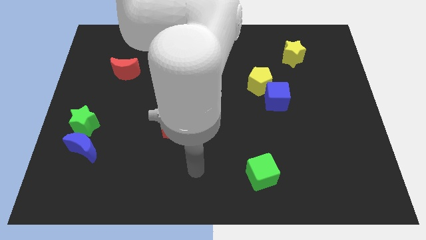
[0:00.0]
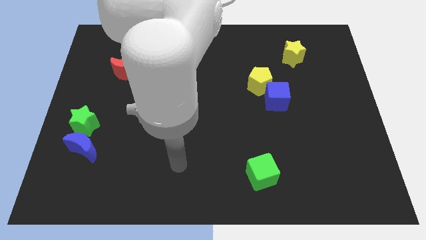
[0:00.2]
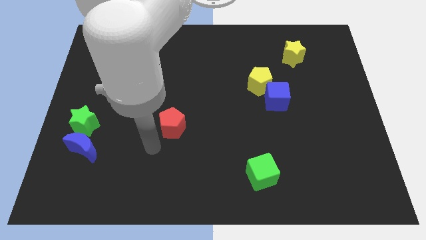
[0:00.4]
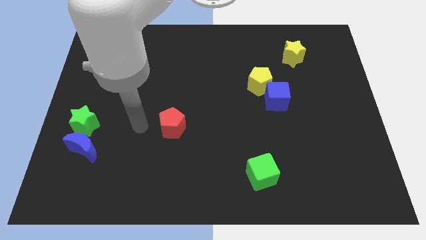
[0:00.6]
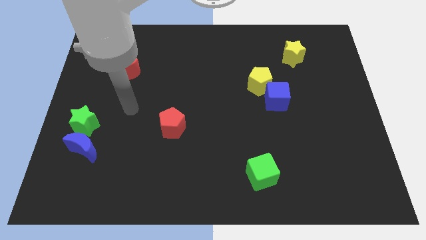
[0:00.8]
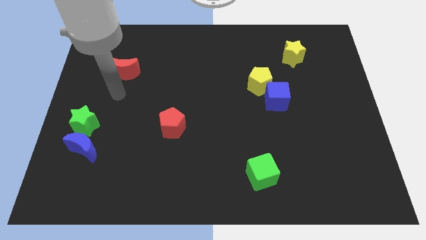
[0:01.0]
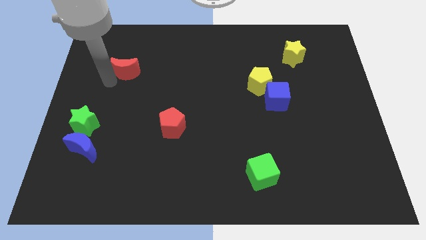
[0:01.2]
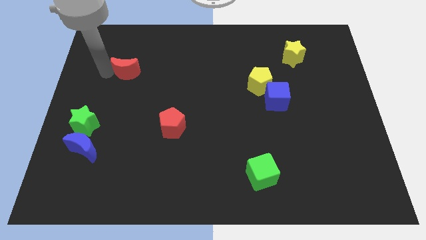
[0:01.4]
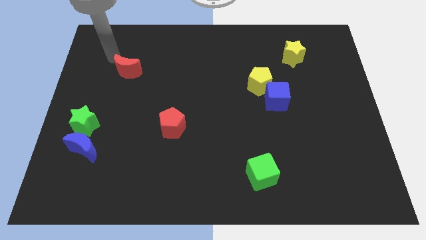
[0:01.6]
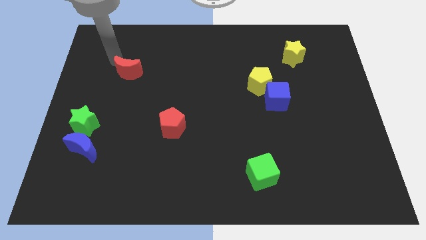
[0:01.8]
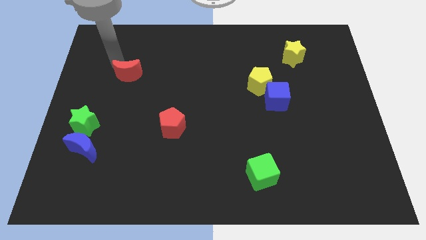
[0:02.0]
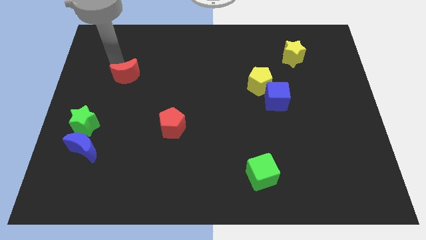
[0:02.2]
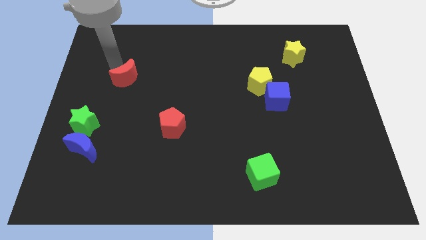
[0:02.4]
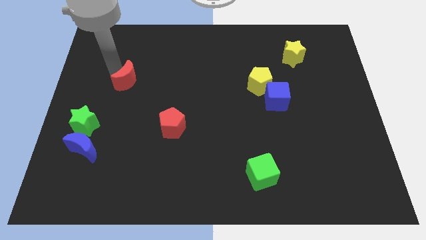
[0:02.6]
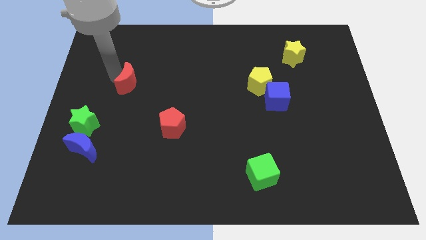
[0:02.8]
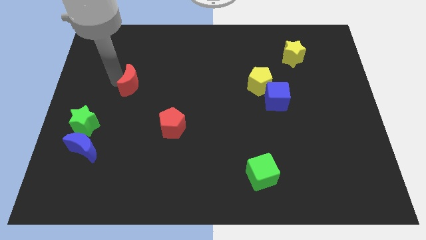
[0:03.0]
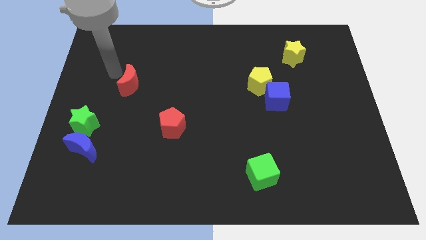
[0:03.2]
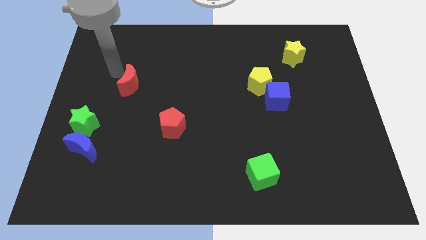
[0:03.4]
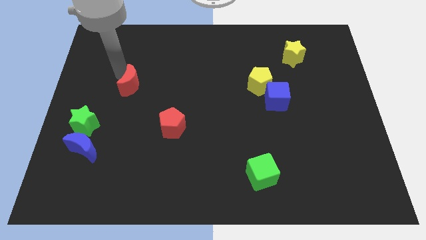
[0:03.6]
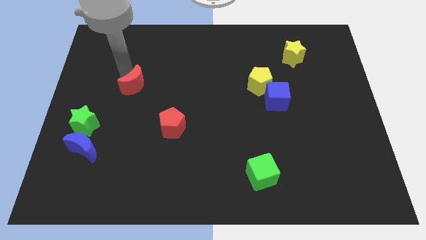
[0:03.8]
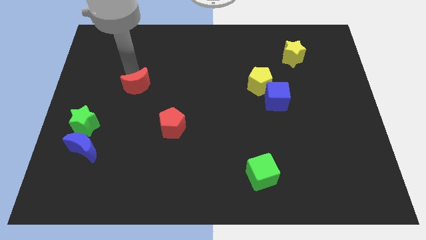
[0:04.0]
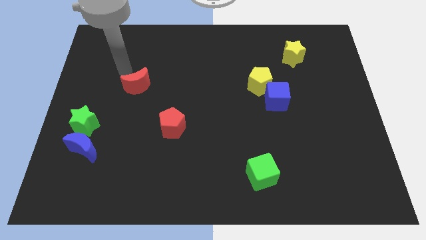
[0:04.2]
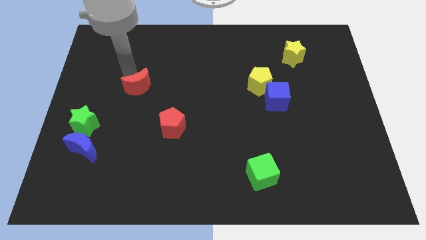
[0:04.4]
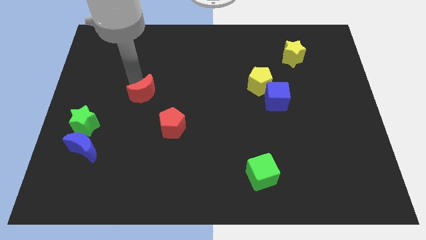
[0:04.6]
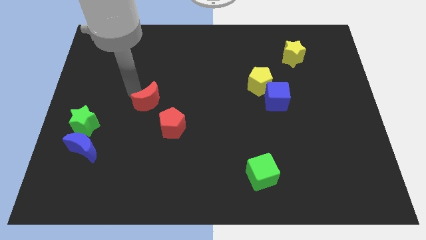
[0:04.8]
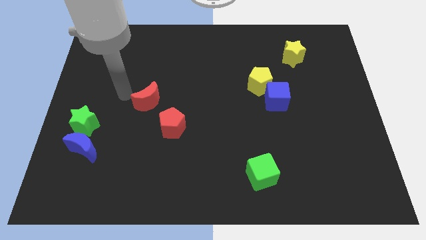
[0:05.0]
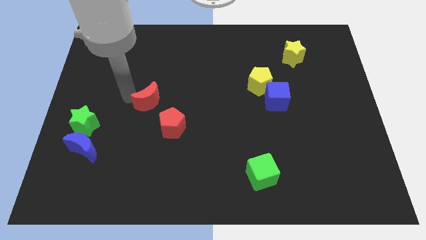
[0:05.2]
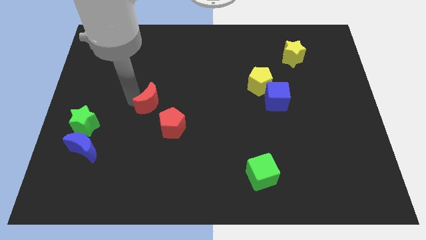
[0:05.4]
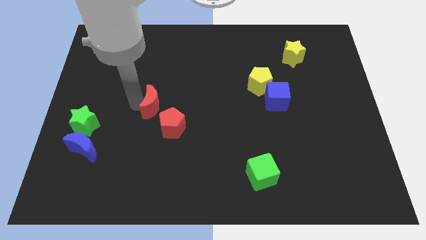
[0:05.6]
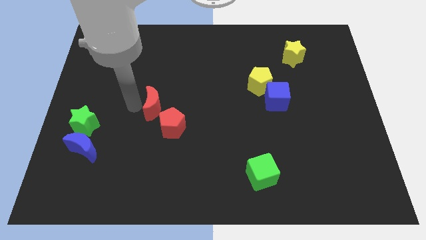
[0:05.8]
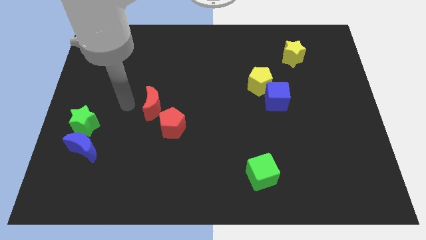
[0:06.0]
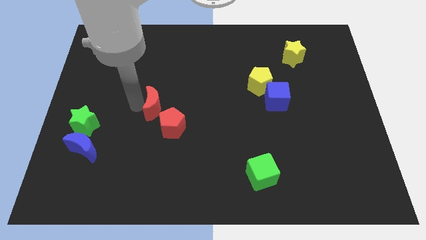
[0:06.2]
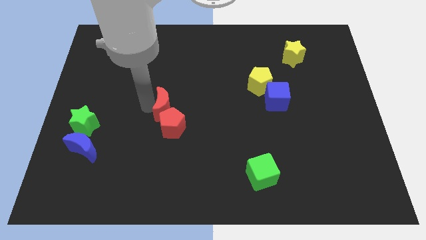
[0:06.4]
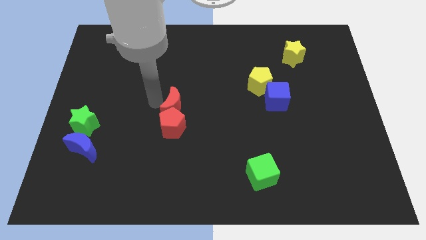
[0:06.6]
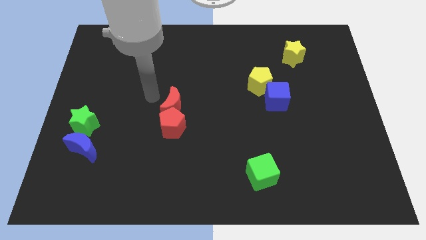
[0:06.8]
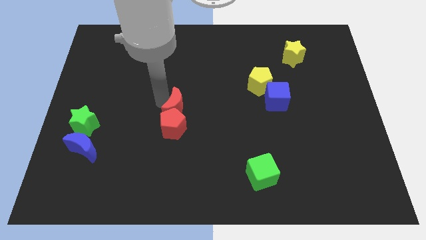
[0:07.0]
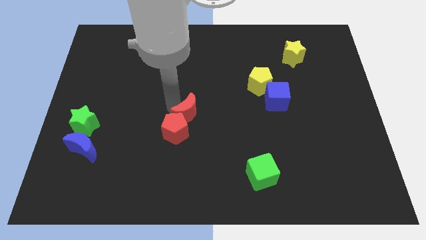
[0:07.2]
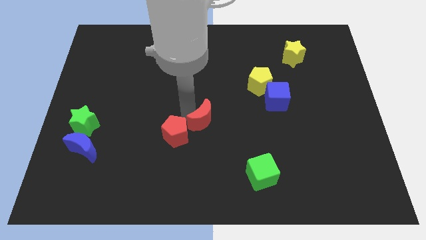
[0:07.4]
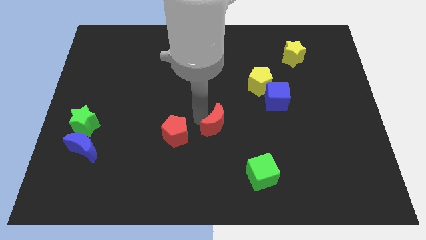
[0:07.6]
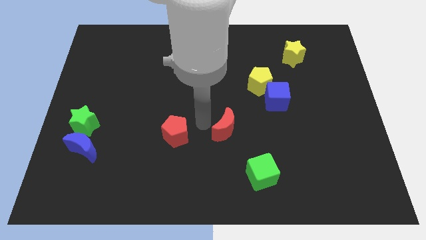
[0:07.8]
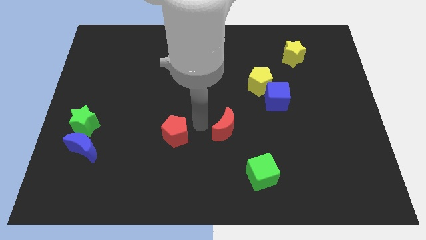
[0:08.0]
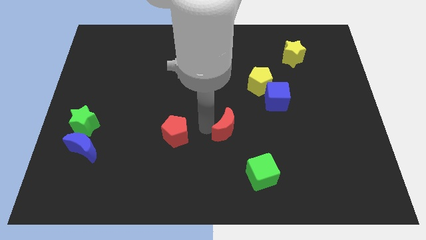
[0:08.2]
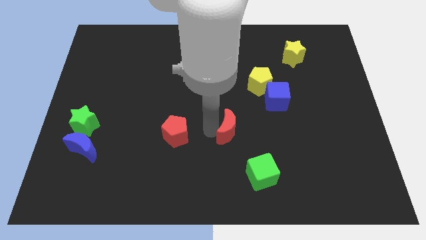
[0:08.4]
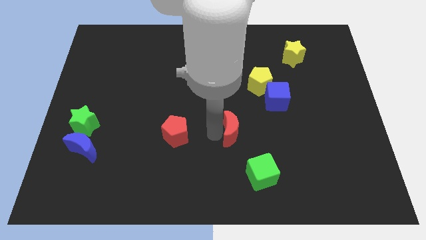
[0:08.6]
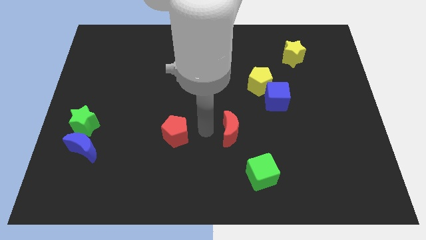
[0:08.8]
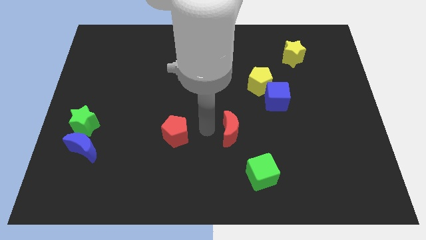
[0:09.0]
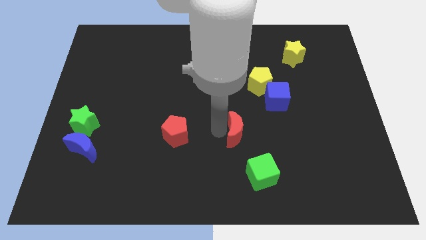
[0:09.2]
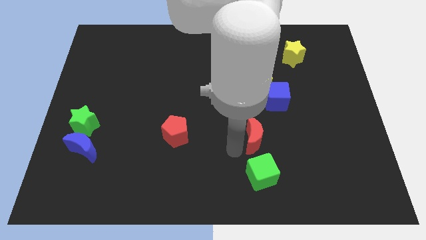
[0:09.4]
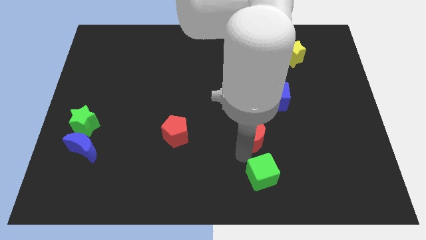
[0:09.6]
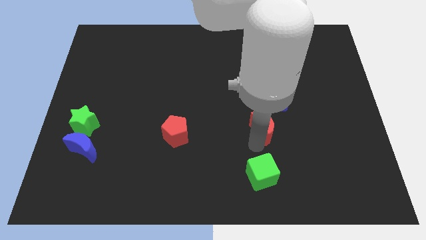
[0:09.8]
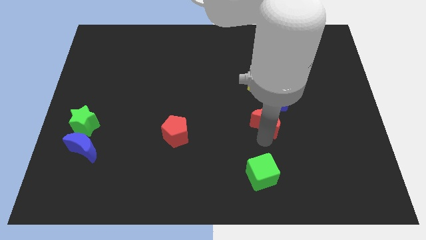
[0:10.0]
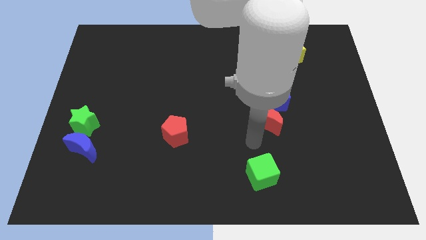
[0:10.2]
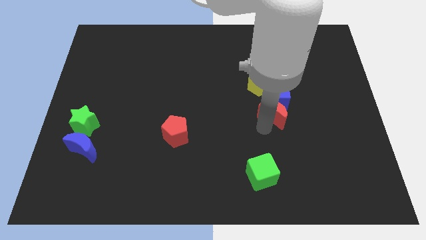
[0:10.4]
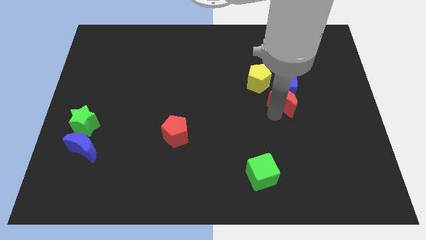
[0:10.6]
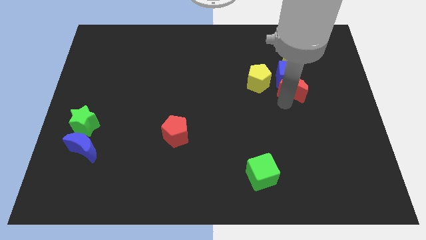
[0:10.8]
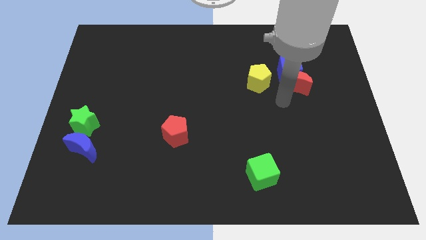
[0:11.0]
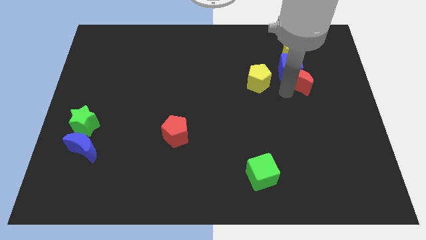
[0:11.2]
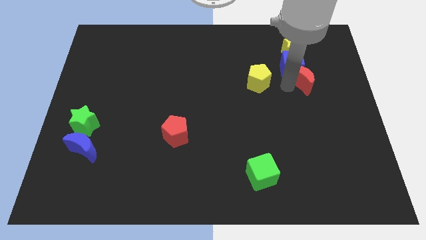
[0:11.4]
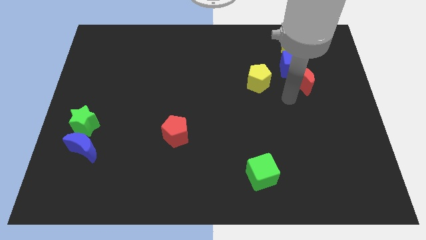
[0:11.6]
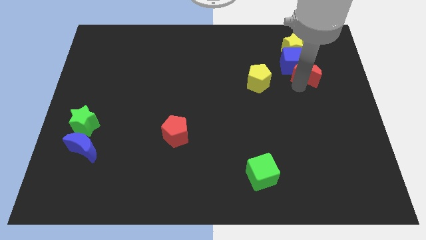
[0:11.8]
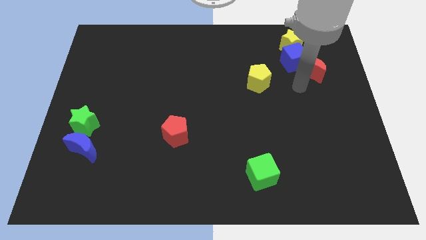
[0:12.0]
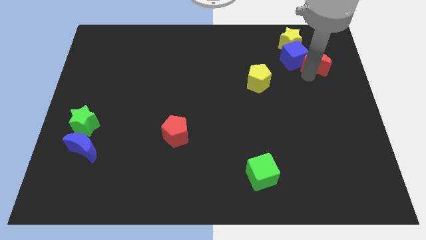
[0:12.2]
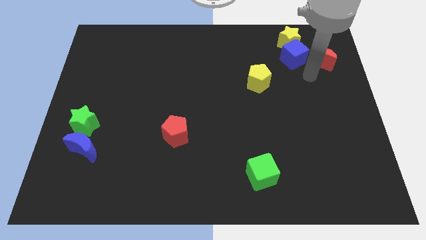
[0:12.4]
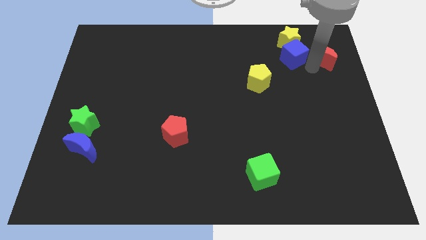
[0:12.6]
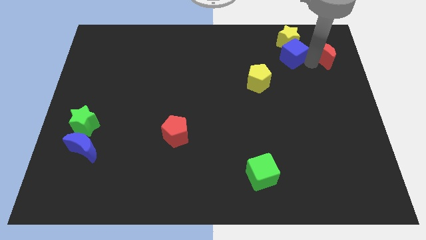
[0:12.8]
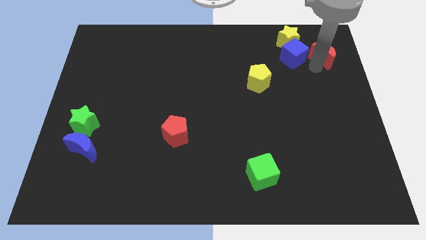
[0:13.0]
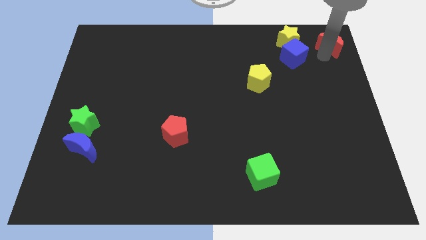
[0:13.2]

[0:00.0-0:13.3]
move the red moon to the upper right corner

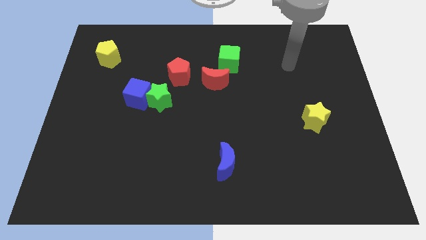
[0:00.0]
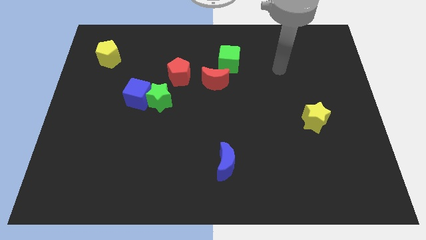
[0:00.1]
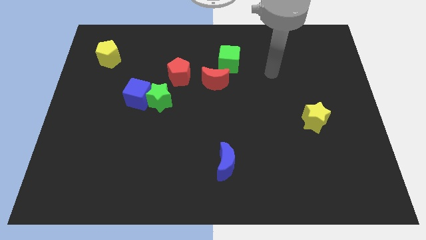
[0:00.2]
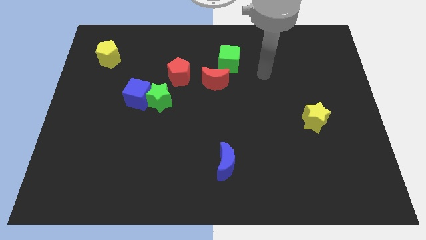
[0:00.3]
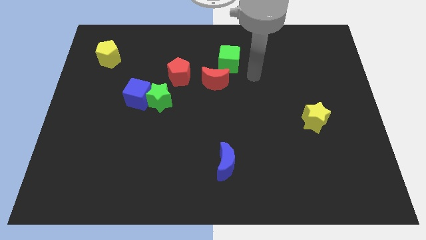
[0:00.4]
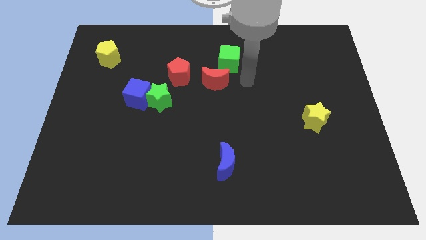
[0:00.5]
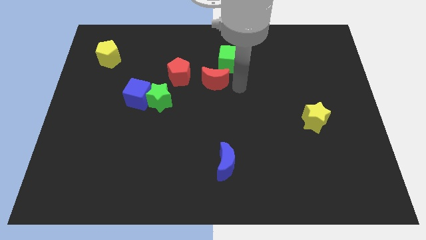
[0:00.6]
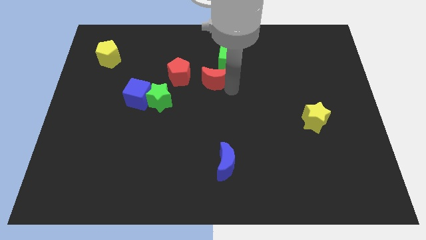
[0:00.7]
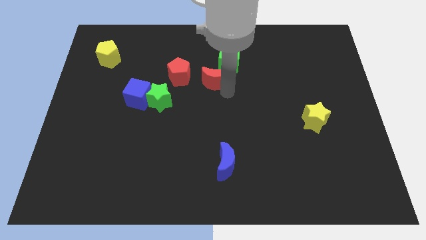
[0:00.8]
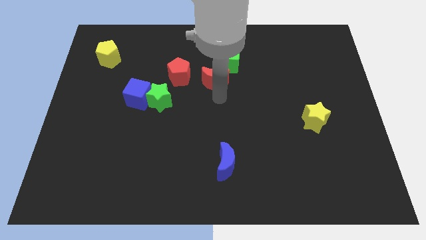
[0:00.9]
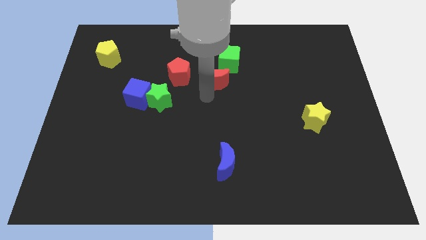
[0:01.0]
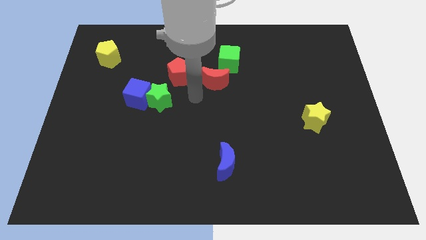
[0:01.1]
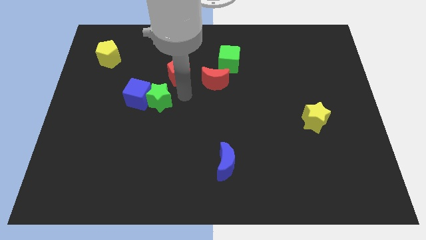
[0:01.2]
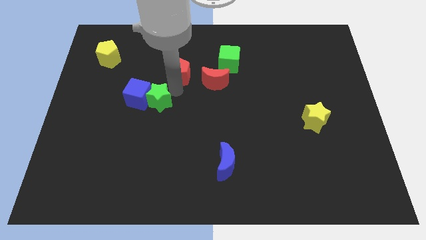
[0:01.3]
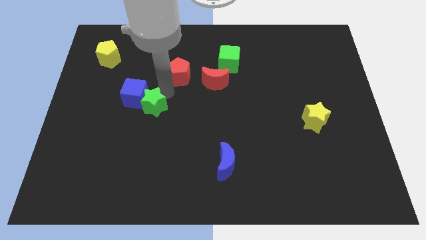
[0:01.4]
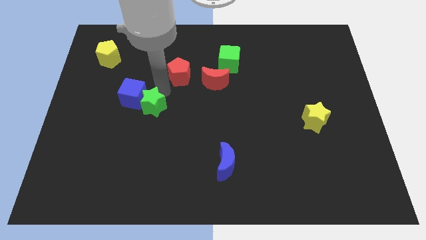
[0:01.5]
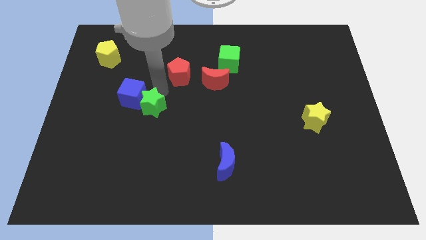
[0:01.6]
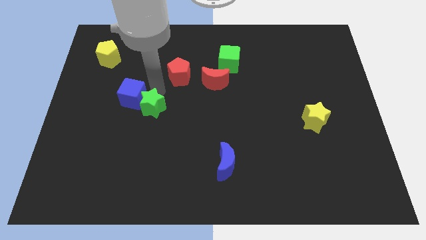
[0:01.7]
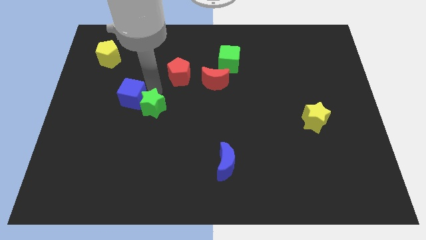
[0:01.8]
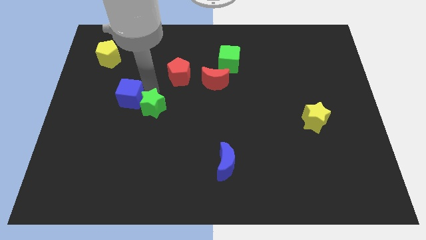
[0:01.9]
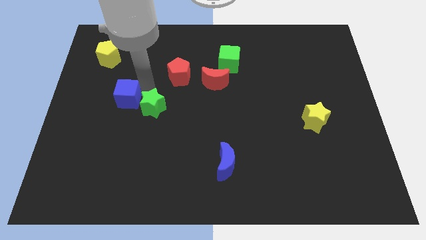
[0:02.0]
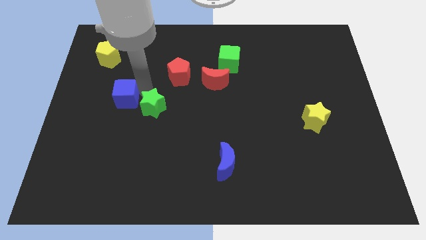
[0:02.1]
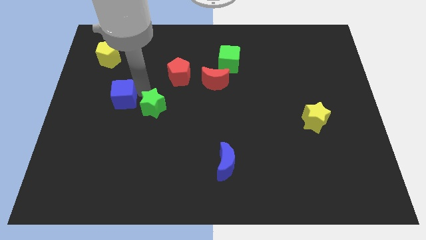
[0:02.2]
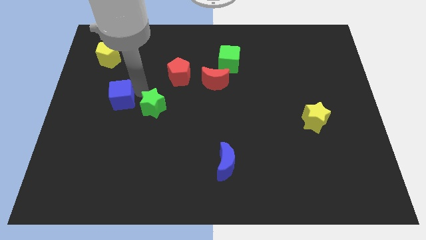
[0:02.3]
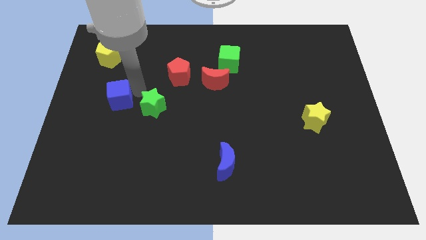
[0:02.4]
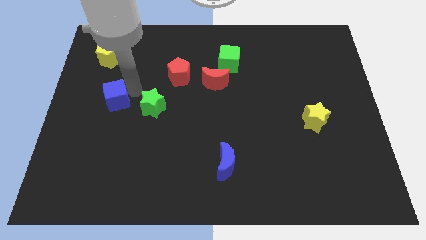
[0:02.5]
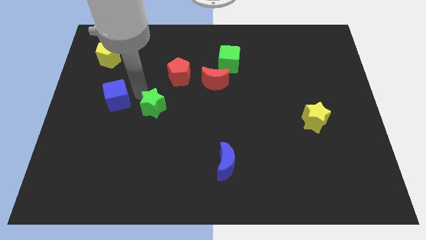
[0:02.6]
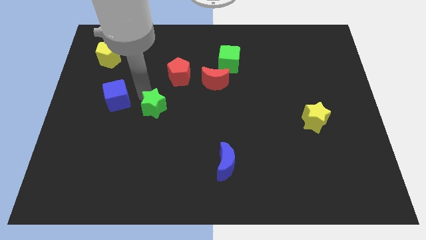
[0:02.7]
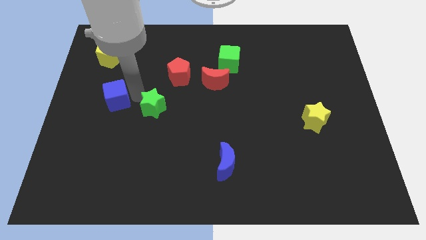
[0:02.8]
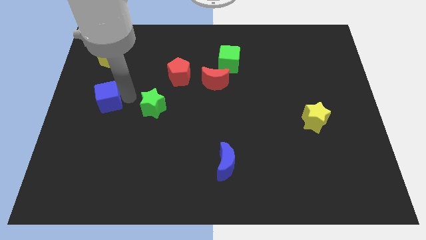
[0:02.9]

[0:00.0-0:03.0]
move the blue cube to the left side
